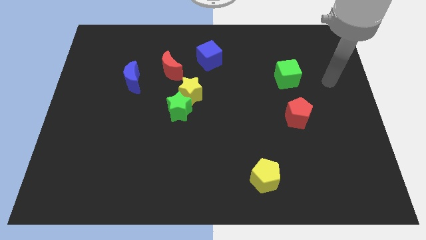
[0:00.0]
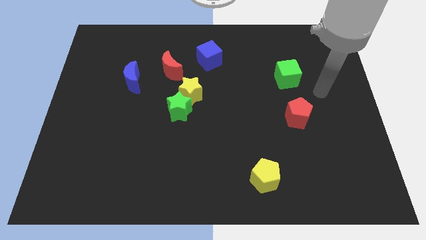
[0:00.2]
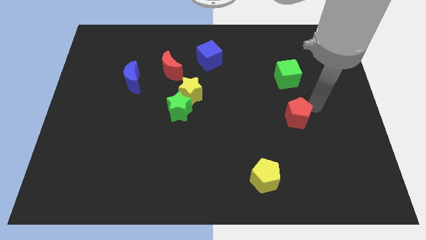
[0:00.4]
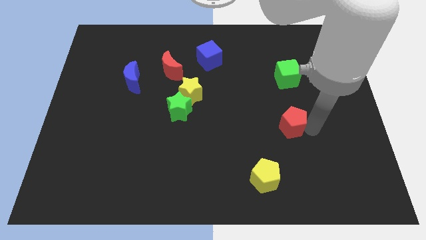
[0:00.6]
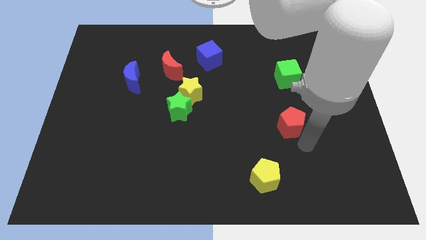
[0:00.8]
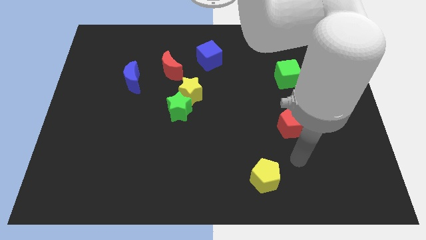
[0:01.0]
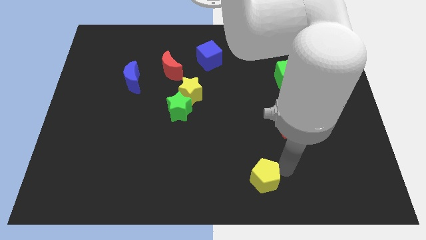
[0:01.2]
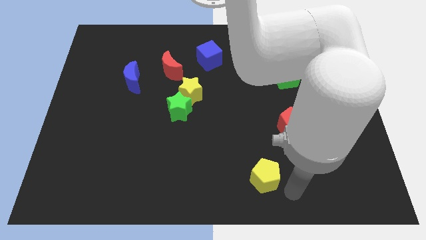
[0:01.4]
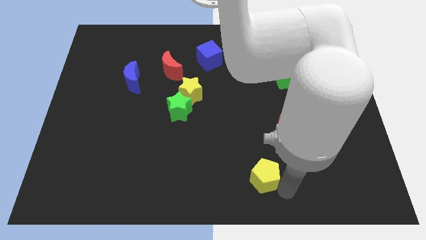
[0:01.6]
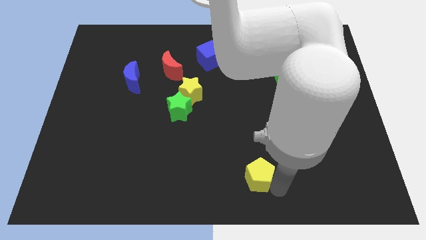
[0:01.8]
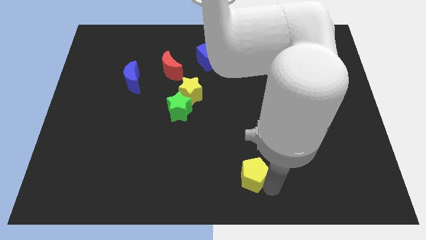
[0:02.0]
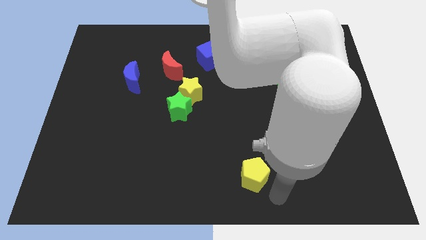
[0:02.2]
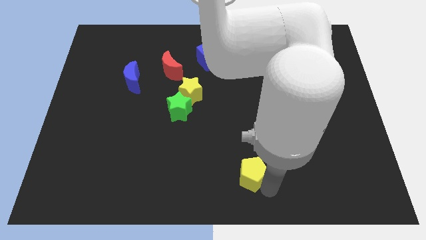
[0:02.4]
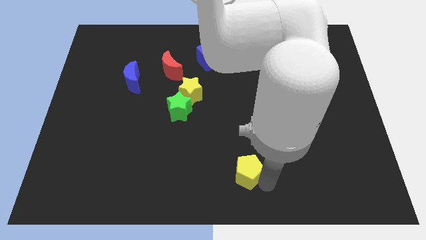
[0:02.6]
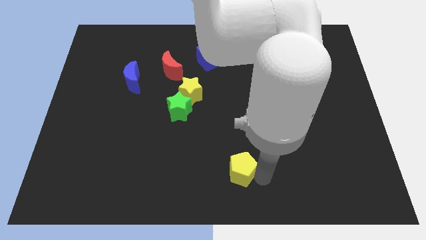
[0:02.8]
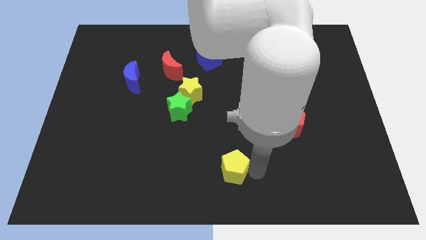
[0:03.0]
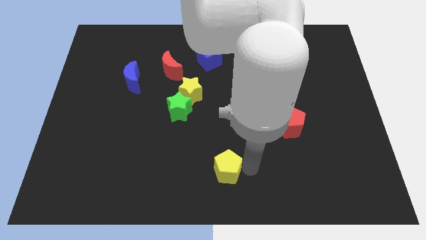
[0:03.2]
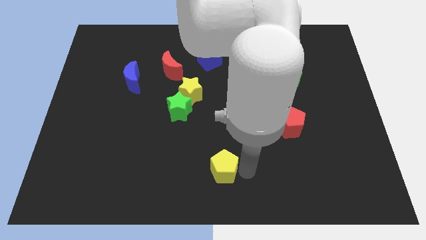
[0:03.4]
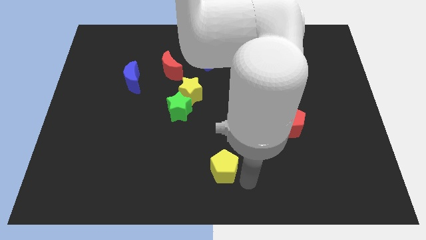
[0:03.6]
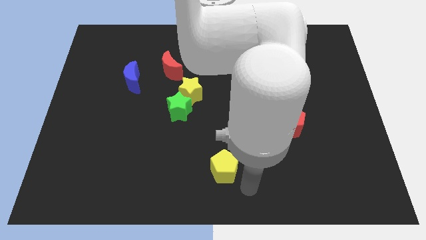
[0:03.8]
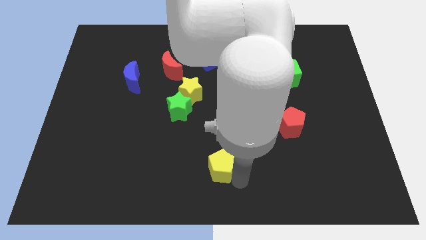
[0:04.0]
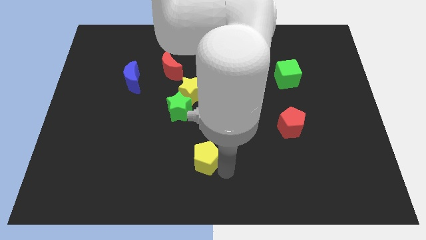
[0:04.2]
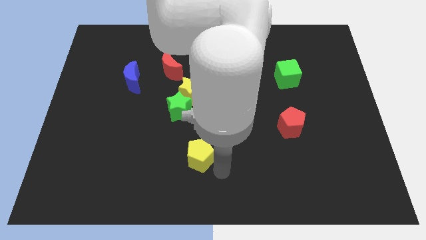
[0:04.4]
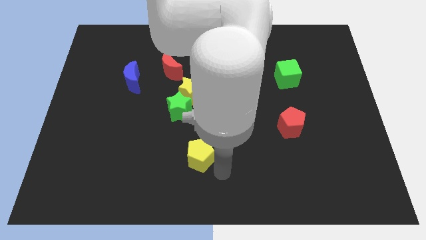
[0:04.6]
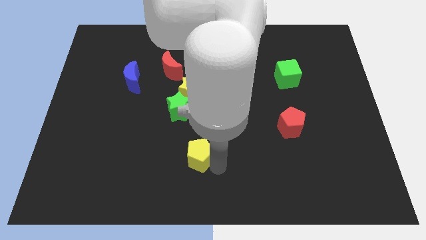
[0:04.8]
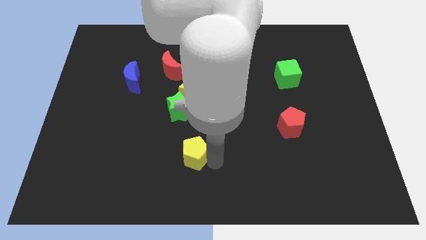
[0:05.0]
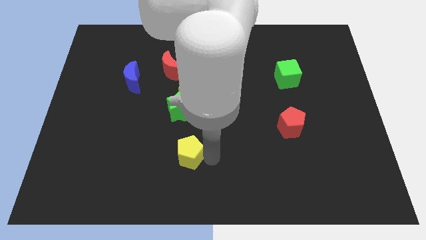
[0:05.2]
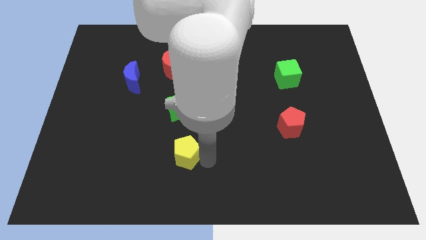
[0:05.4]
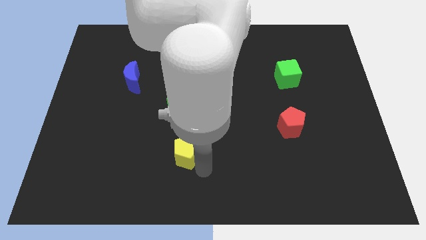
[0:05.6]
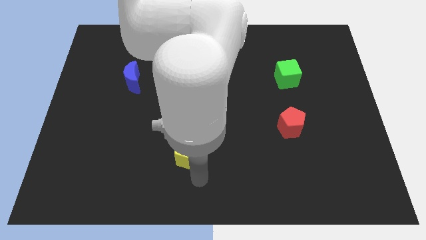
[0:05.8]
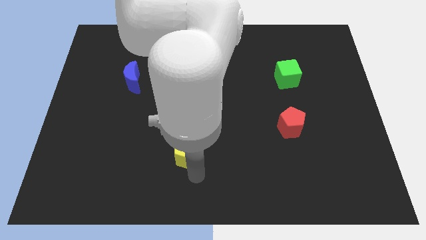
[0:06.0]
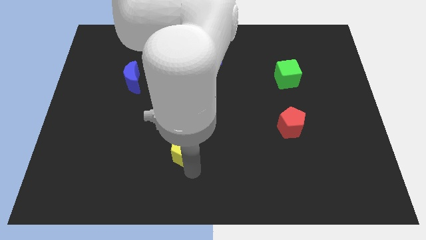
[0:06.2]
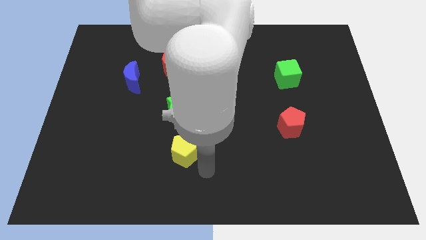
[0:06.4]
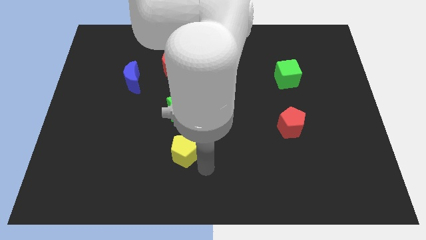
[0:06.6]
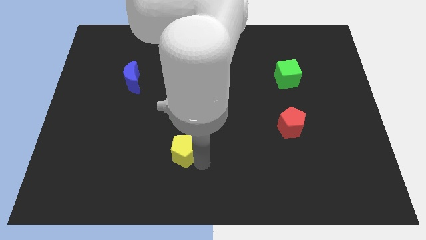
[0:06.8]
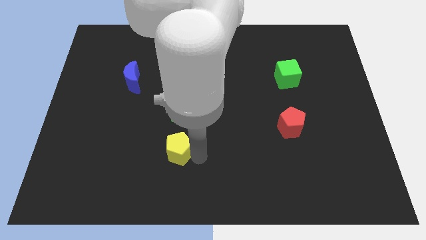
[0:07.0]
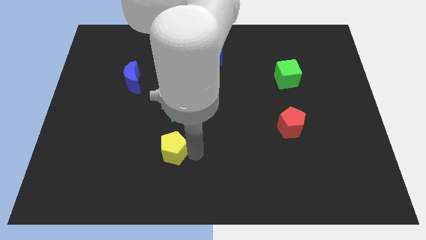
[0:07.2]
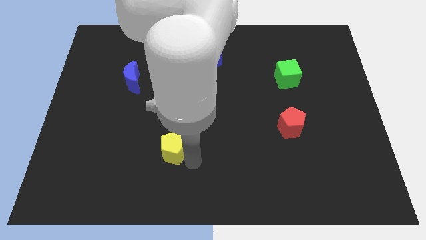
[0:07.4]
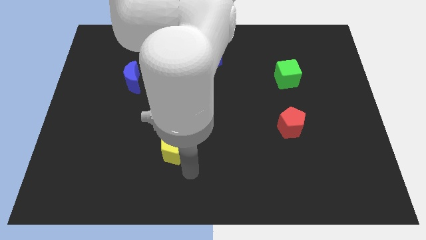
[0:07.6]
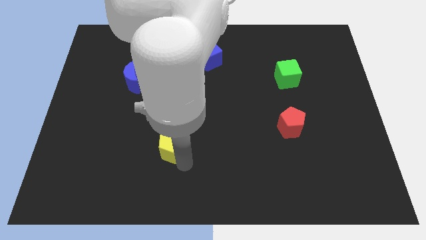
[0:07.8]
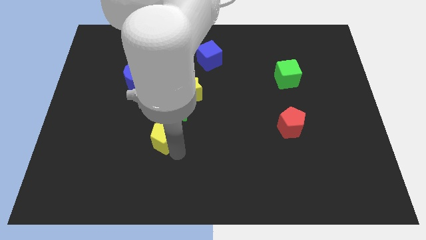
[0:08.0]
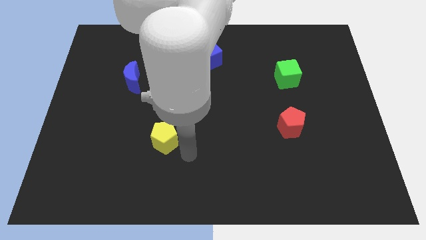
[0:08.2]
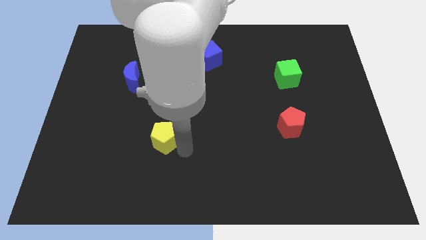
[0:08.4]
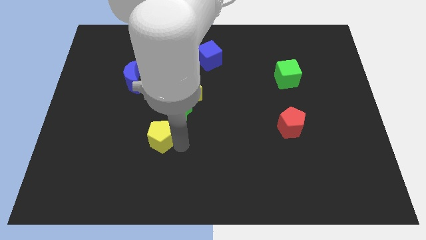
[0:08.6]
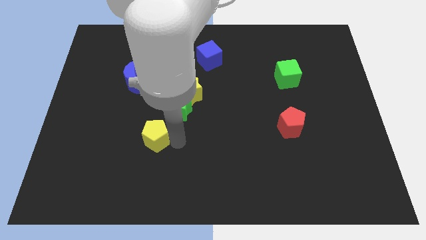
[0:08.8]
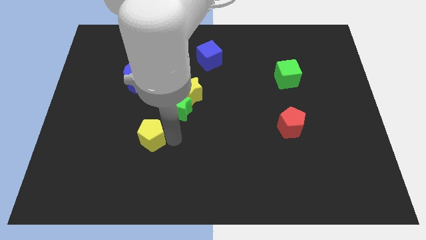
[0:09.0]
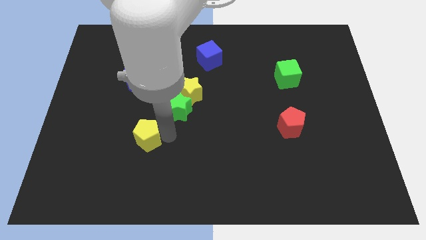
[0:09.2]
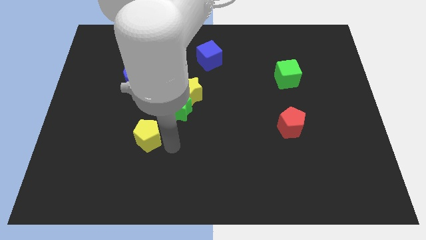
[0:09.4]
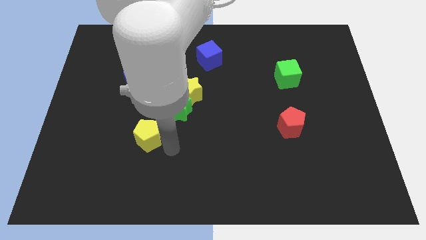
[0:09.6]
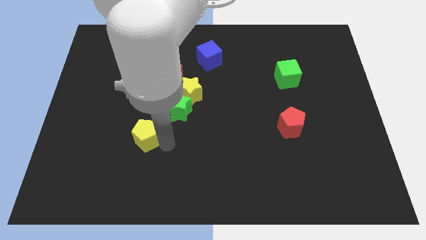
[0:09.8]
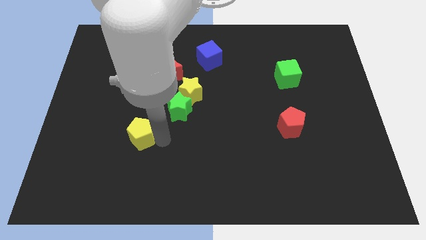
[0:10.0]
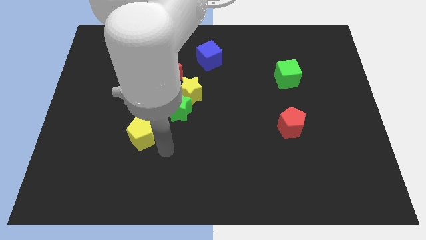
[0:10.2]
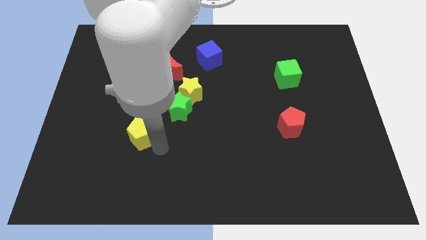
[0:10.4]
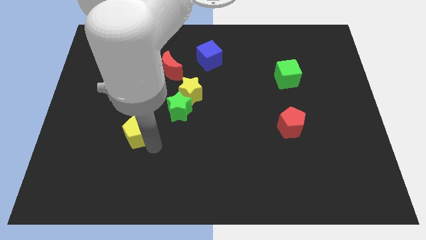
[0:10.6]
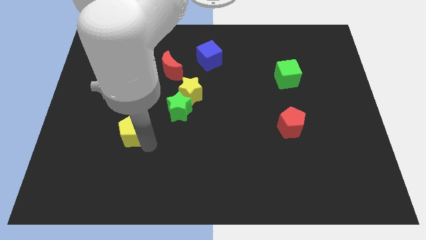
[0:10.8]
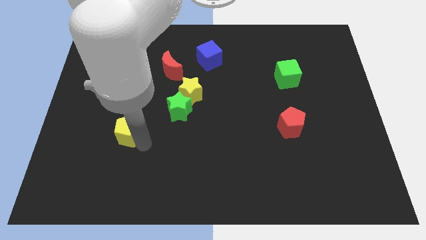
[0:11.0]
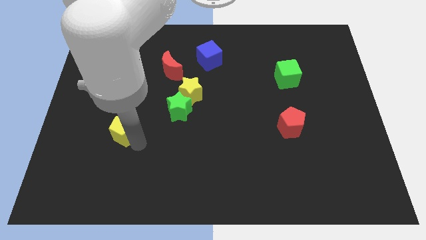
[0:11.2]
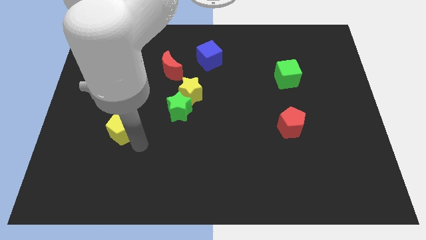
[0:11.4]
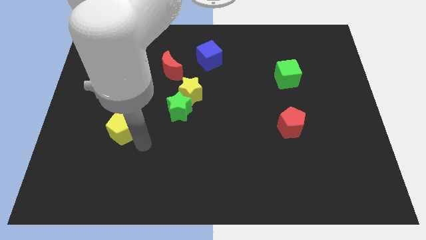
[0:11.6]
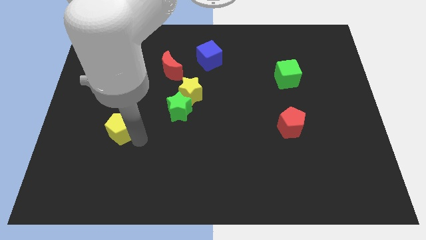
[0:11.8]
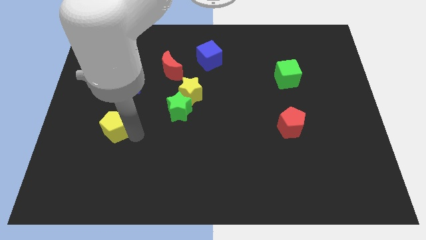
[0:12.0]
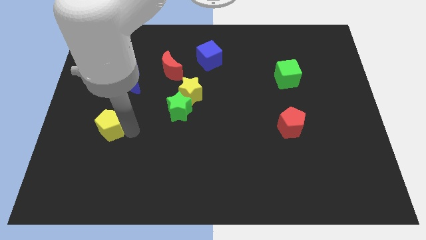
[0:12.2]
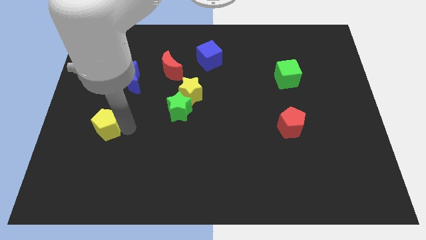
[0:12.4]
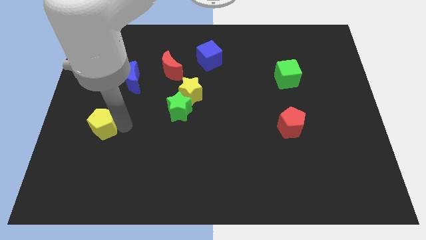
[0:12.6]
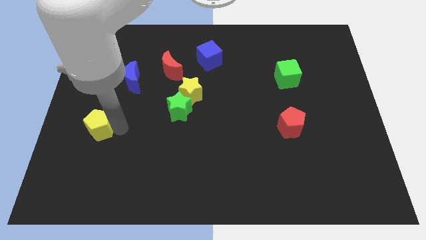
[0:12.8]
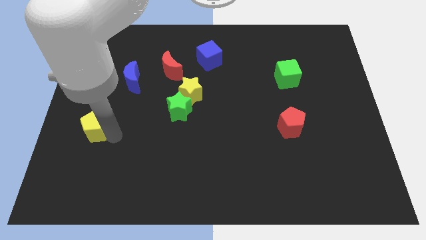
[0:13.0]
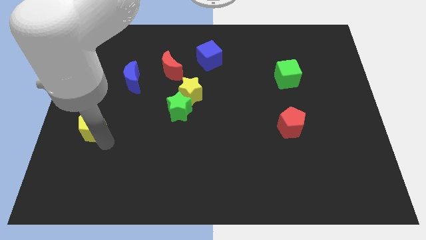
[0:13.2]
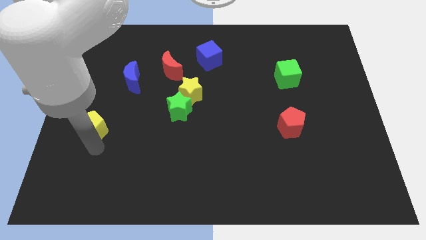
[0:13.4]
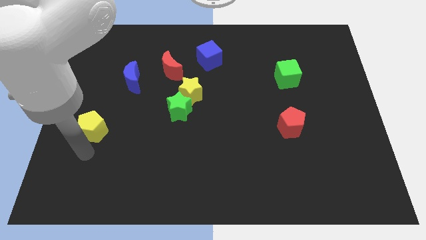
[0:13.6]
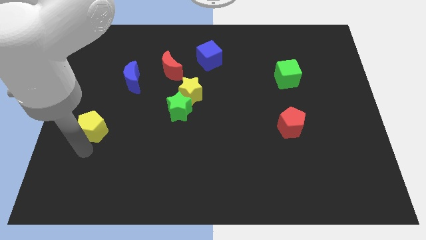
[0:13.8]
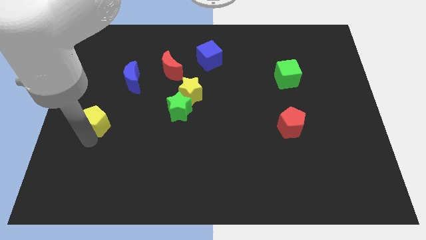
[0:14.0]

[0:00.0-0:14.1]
push the yellow pentagon to the left side
